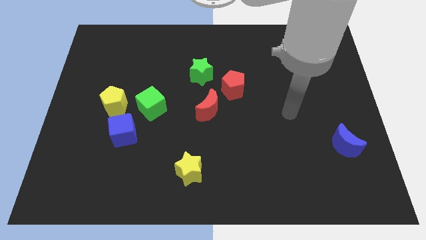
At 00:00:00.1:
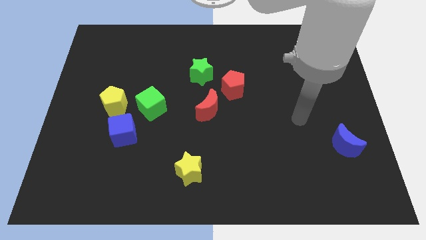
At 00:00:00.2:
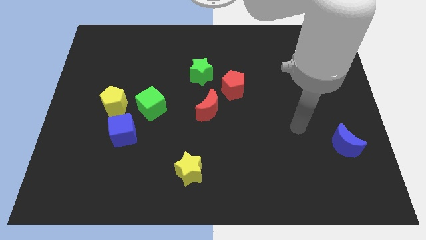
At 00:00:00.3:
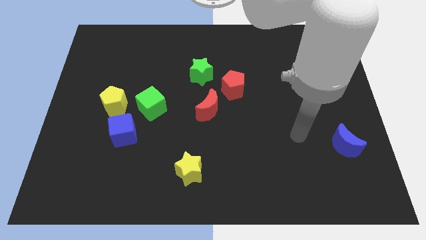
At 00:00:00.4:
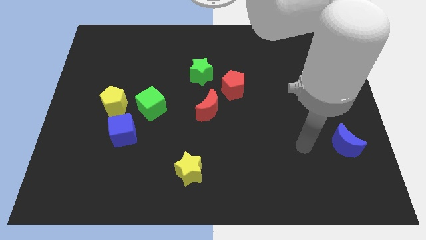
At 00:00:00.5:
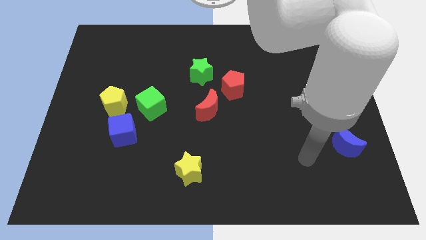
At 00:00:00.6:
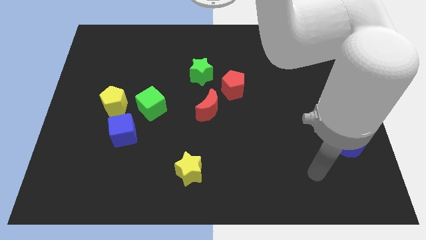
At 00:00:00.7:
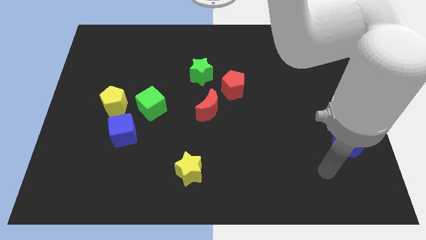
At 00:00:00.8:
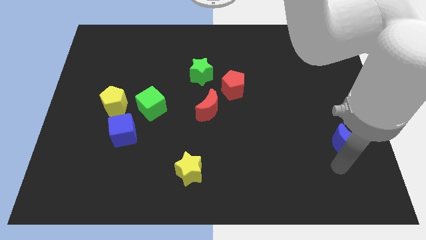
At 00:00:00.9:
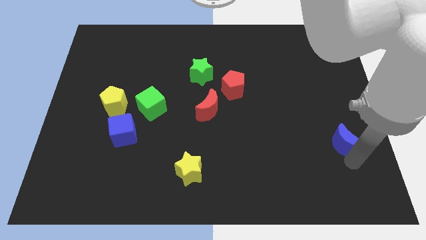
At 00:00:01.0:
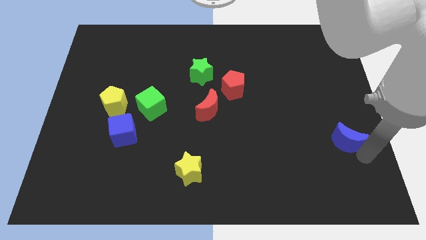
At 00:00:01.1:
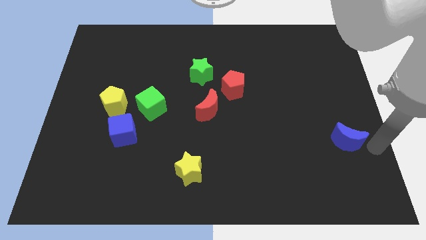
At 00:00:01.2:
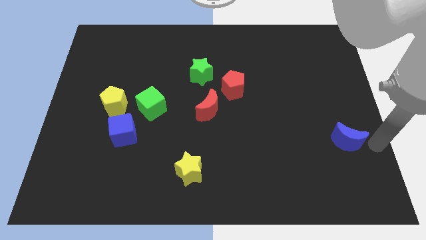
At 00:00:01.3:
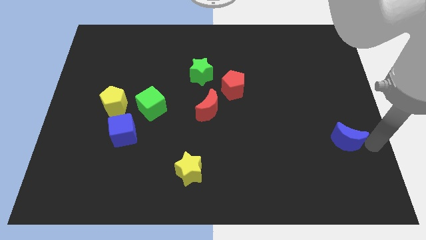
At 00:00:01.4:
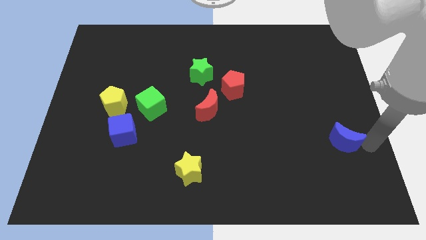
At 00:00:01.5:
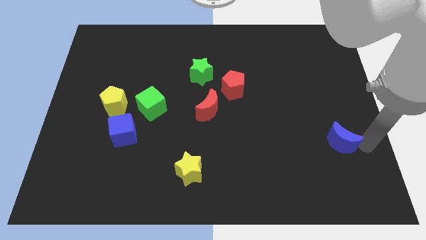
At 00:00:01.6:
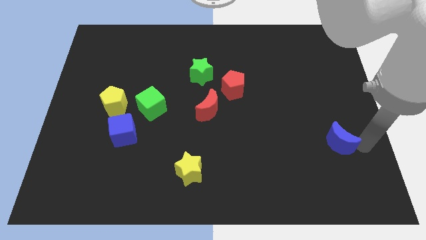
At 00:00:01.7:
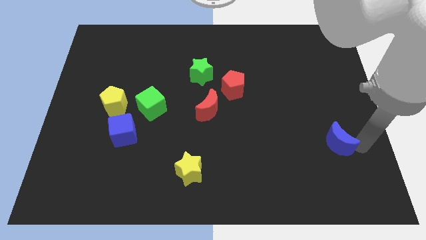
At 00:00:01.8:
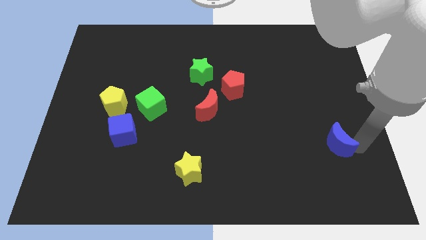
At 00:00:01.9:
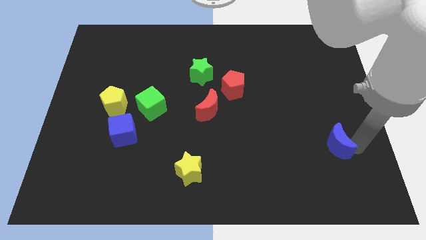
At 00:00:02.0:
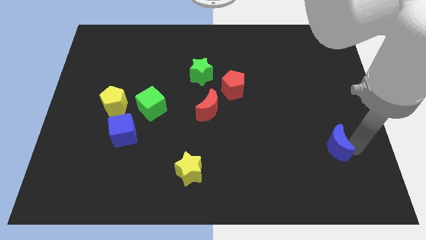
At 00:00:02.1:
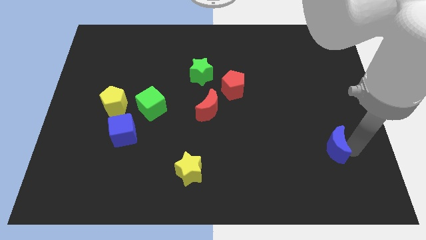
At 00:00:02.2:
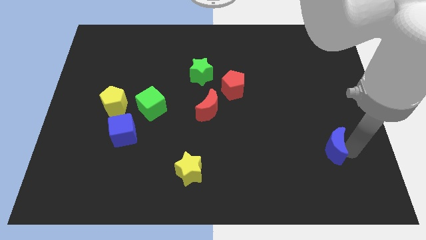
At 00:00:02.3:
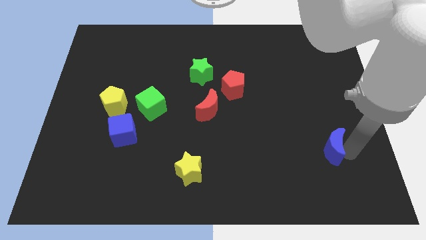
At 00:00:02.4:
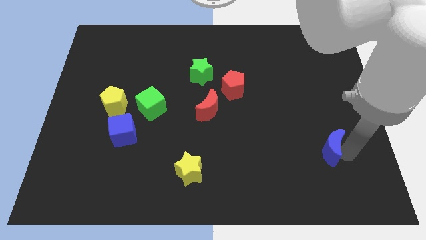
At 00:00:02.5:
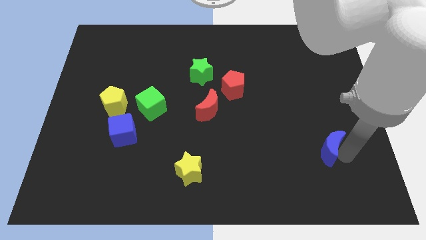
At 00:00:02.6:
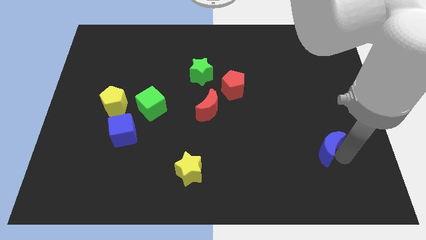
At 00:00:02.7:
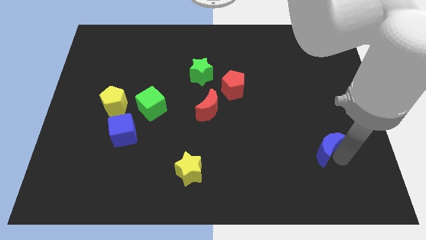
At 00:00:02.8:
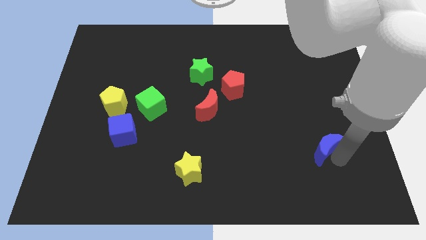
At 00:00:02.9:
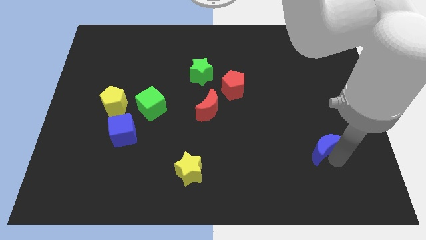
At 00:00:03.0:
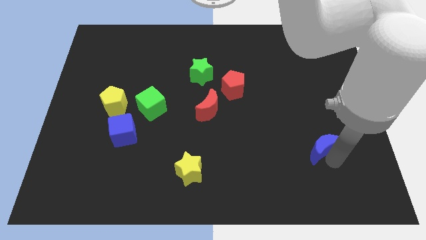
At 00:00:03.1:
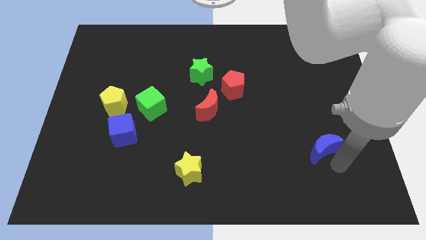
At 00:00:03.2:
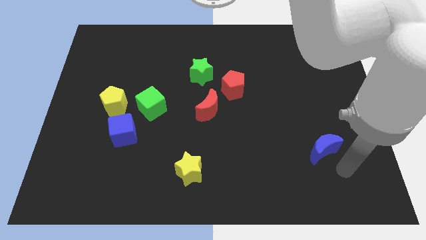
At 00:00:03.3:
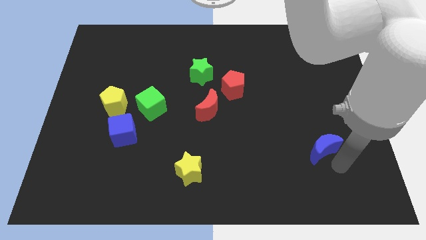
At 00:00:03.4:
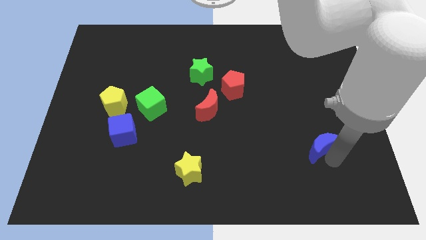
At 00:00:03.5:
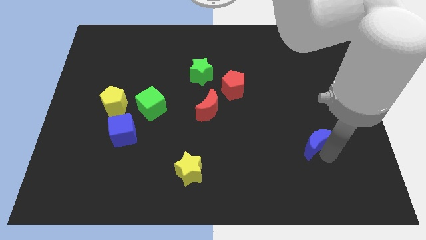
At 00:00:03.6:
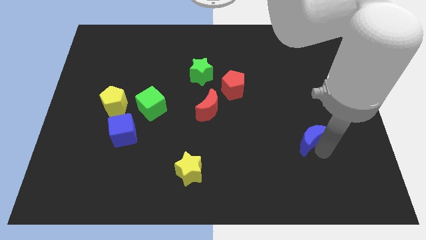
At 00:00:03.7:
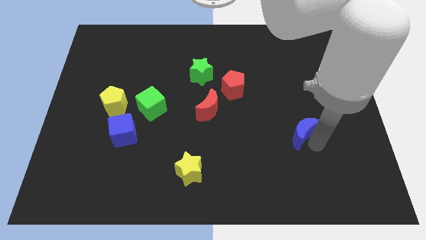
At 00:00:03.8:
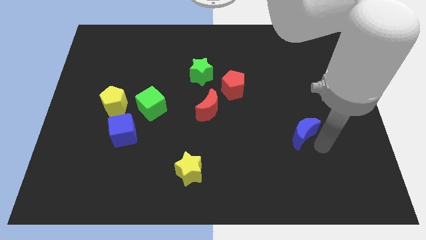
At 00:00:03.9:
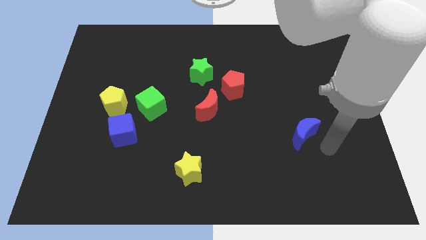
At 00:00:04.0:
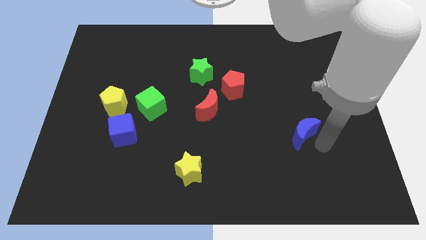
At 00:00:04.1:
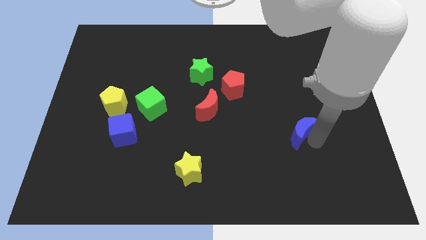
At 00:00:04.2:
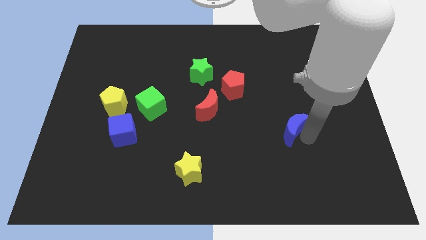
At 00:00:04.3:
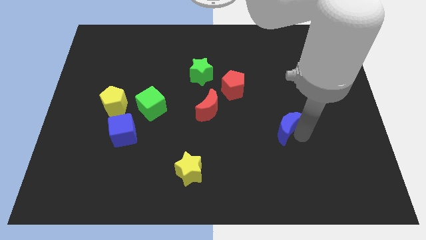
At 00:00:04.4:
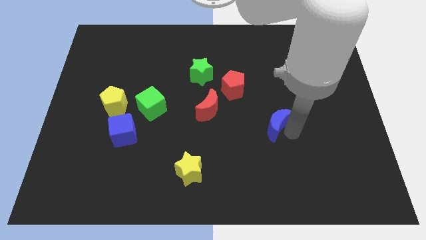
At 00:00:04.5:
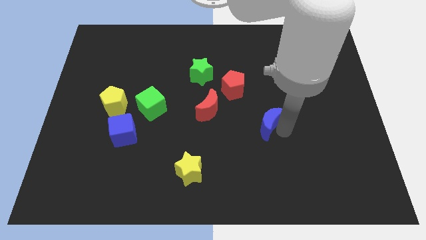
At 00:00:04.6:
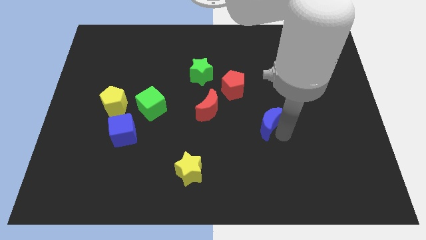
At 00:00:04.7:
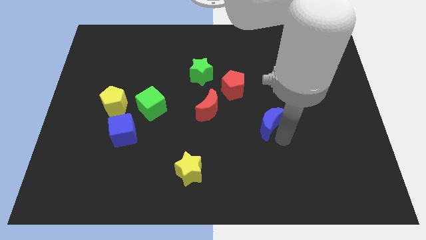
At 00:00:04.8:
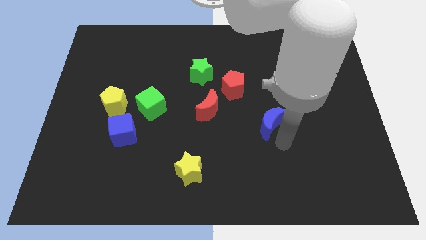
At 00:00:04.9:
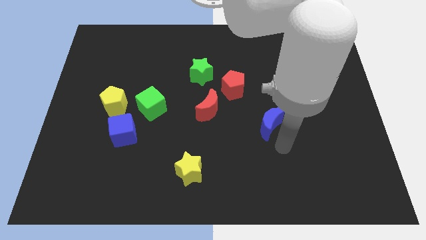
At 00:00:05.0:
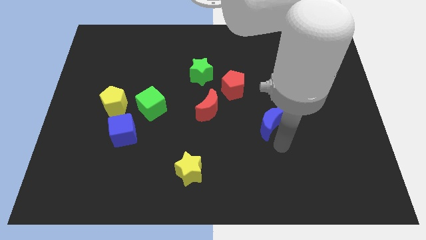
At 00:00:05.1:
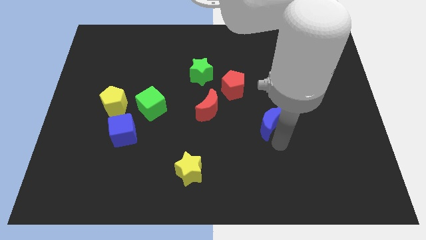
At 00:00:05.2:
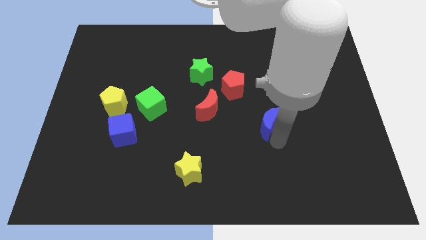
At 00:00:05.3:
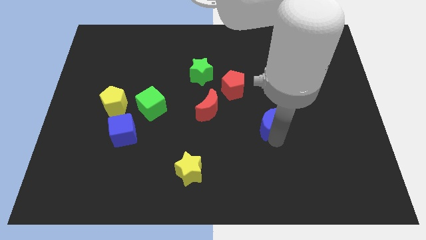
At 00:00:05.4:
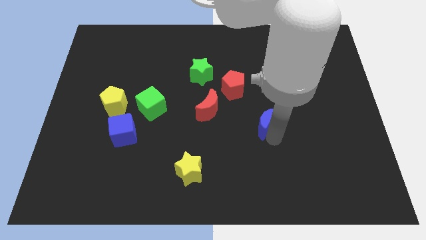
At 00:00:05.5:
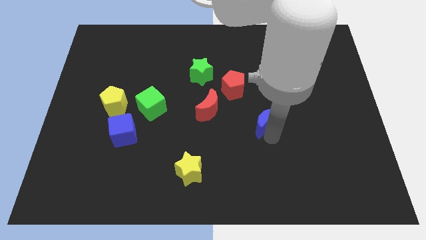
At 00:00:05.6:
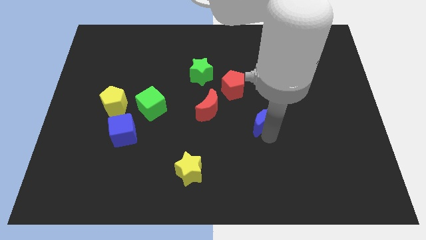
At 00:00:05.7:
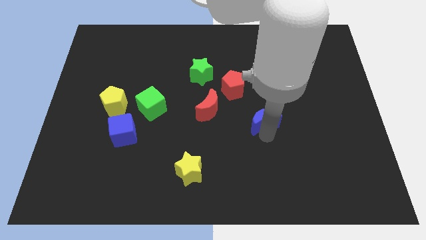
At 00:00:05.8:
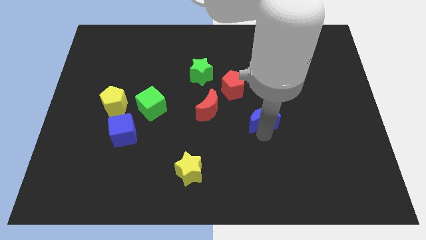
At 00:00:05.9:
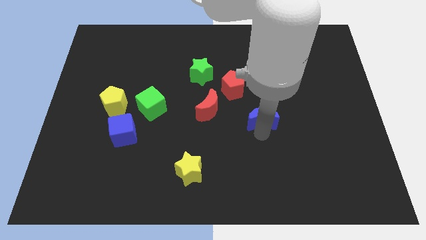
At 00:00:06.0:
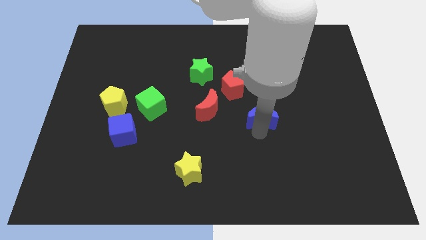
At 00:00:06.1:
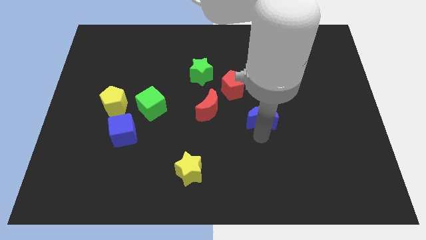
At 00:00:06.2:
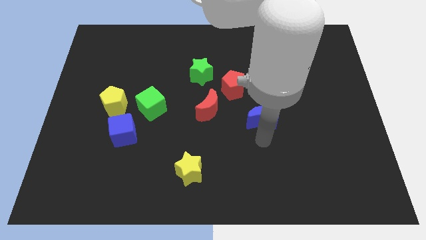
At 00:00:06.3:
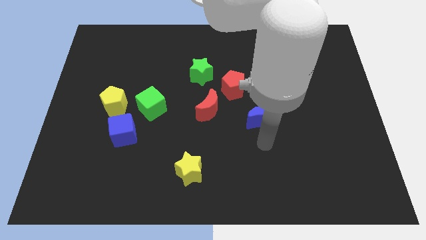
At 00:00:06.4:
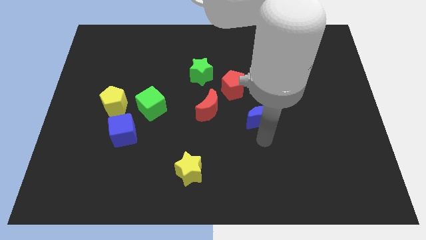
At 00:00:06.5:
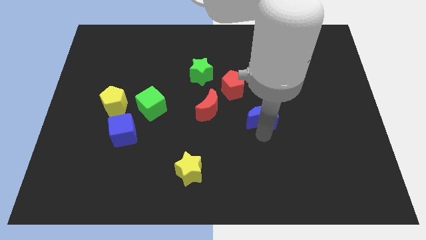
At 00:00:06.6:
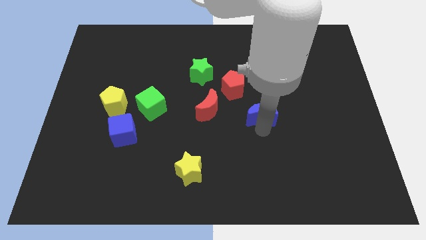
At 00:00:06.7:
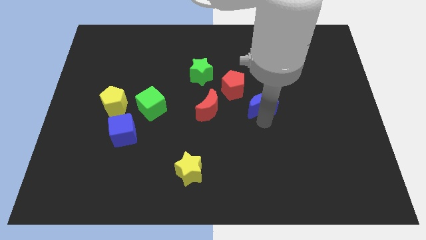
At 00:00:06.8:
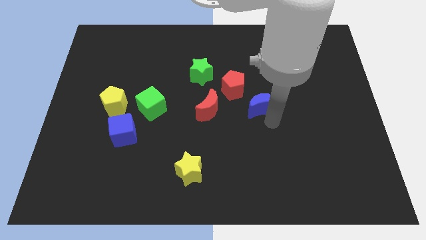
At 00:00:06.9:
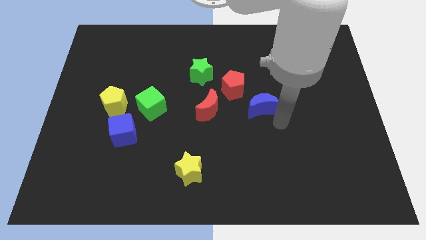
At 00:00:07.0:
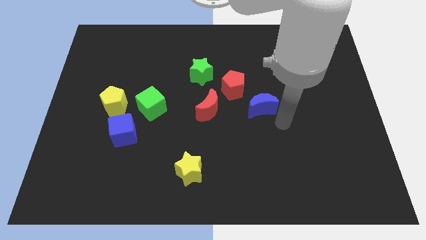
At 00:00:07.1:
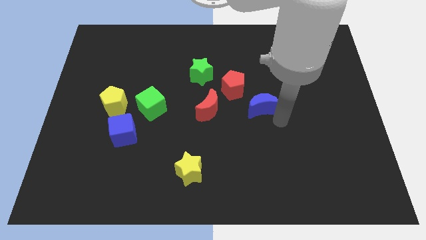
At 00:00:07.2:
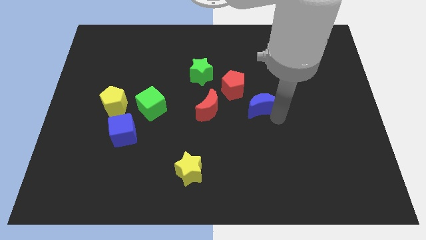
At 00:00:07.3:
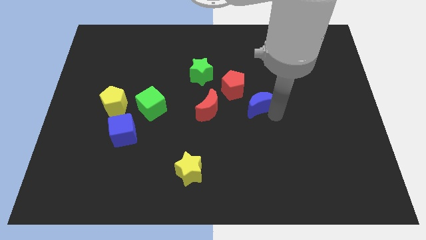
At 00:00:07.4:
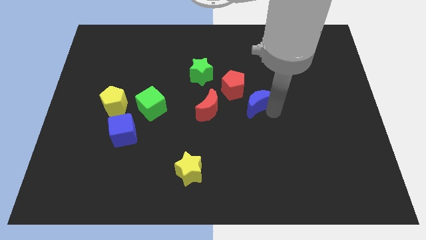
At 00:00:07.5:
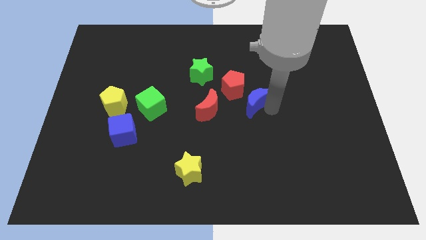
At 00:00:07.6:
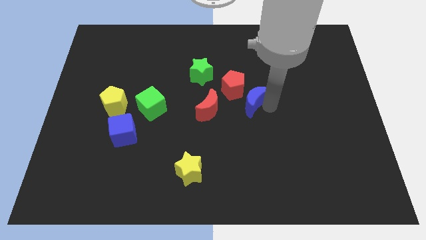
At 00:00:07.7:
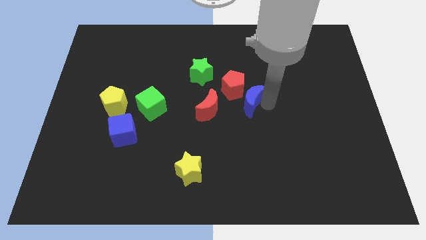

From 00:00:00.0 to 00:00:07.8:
push the blue moon to the red pentagon
